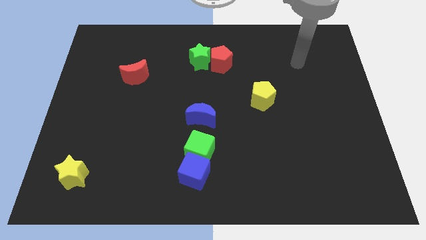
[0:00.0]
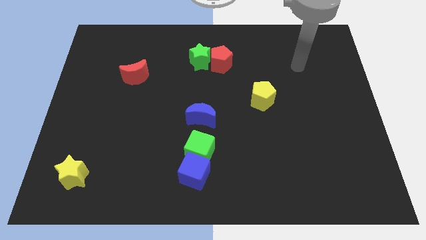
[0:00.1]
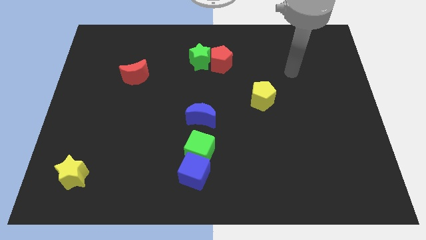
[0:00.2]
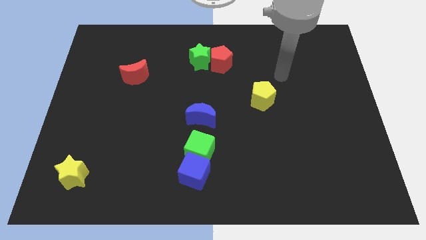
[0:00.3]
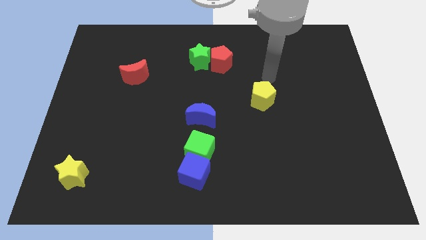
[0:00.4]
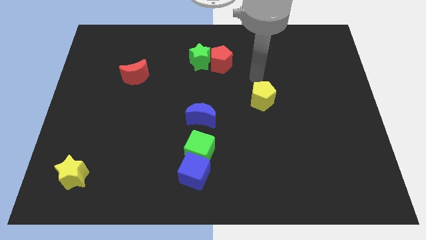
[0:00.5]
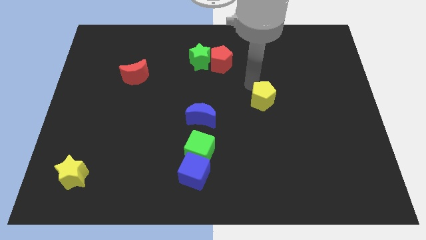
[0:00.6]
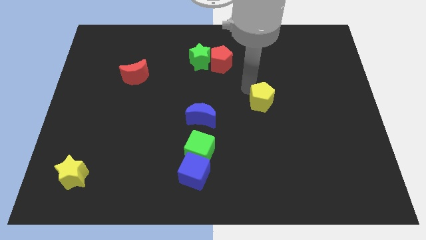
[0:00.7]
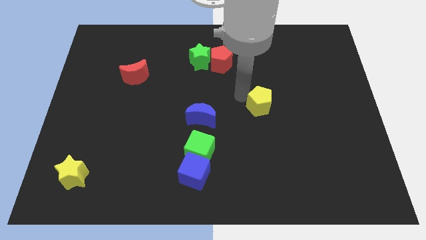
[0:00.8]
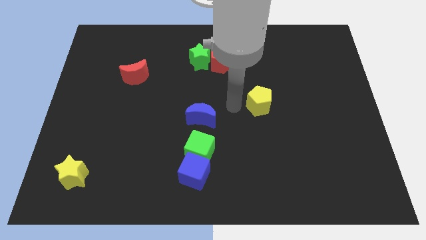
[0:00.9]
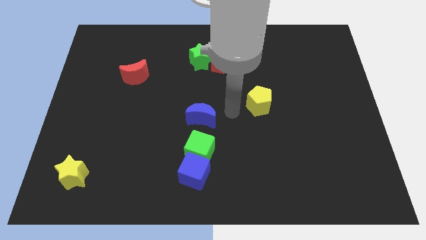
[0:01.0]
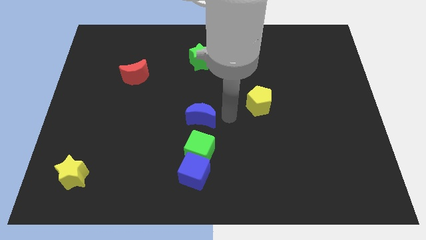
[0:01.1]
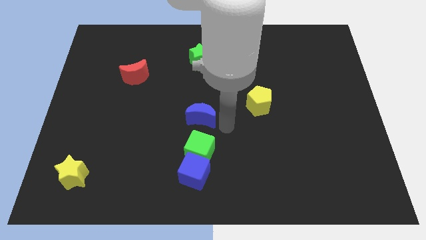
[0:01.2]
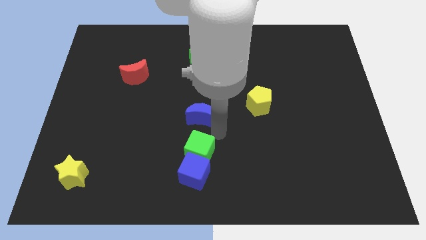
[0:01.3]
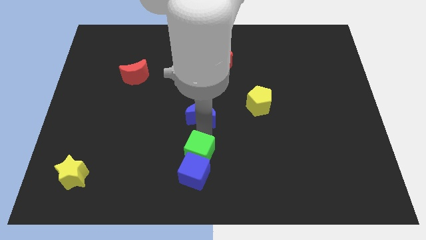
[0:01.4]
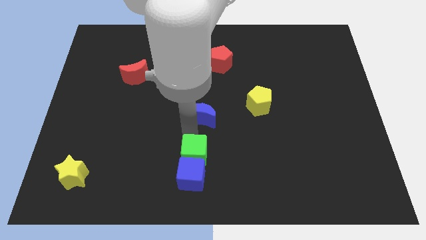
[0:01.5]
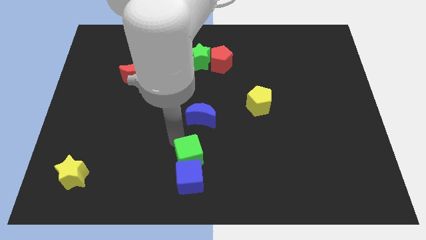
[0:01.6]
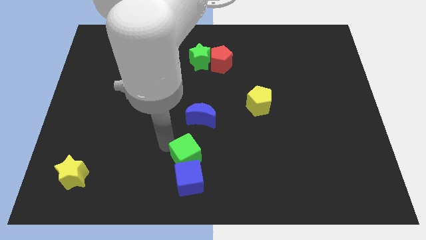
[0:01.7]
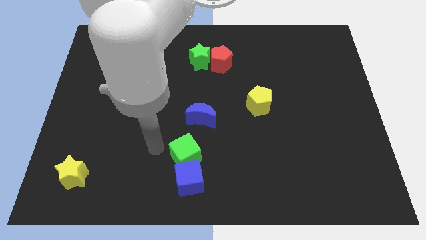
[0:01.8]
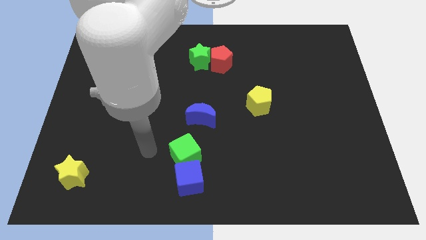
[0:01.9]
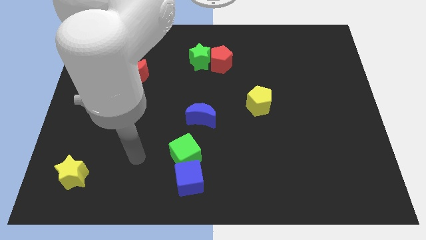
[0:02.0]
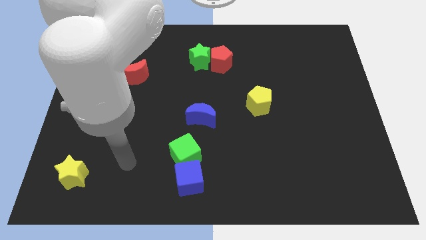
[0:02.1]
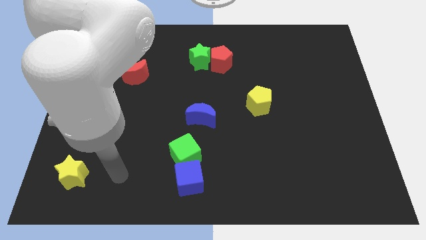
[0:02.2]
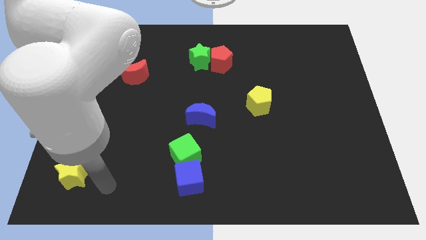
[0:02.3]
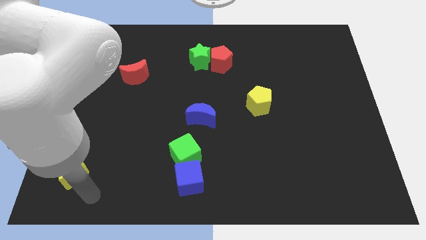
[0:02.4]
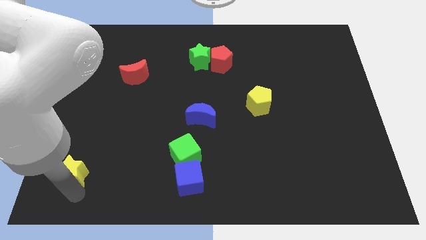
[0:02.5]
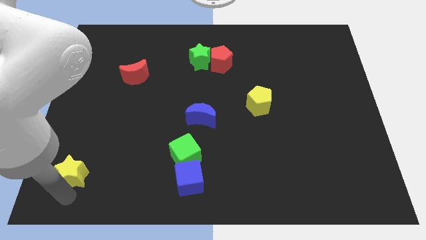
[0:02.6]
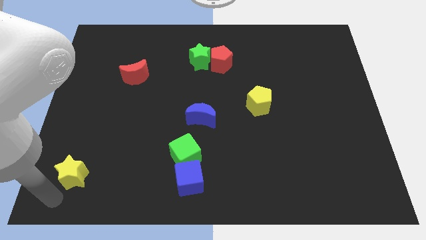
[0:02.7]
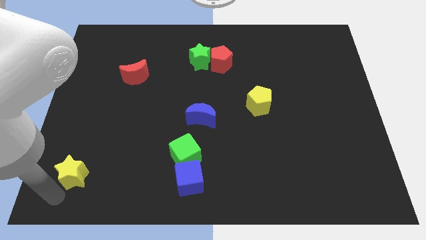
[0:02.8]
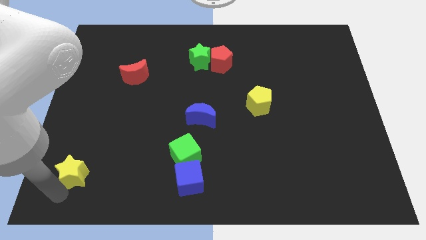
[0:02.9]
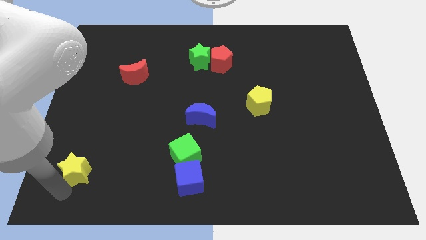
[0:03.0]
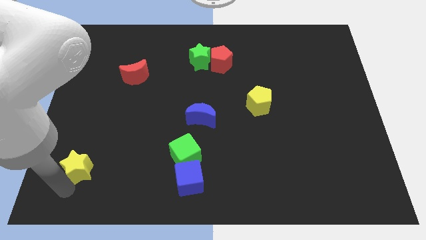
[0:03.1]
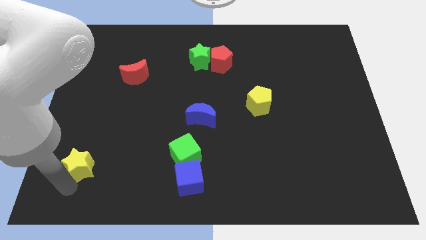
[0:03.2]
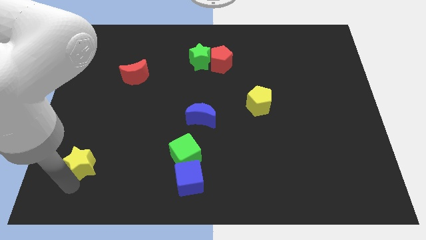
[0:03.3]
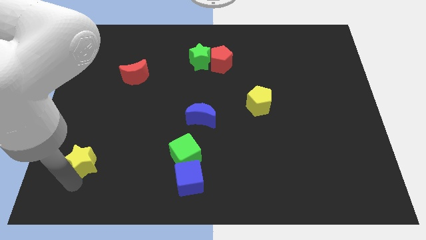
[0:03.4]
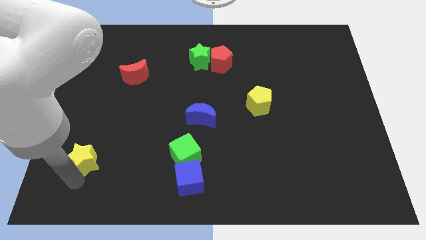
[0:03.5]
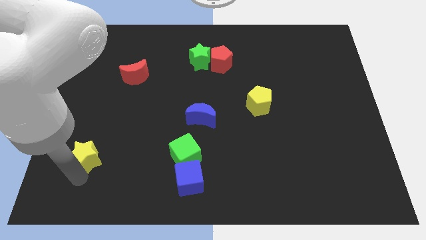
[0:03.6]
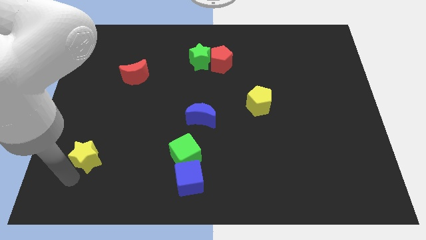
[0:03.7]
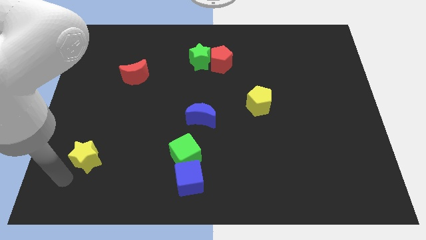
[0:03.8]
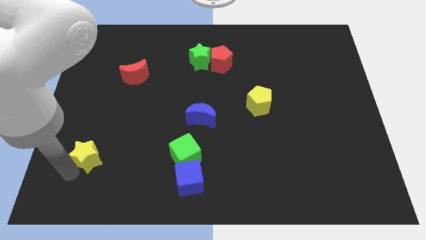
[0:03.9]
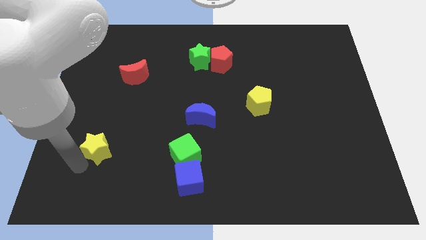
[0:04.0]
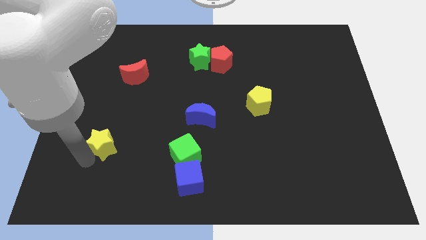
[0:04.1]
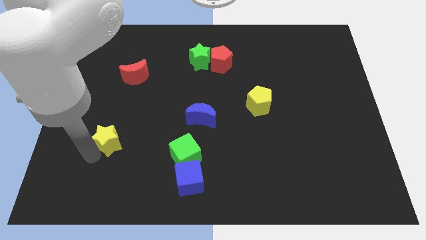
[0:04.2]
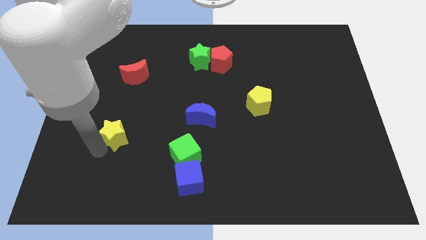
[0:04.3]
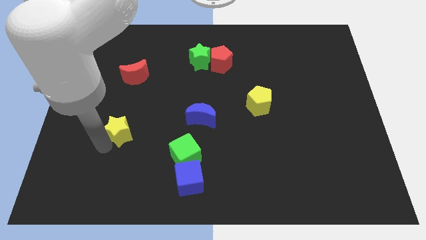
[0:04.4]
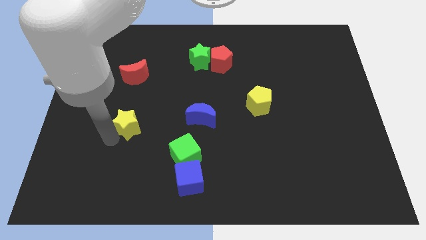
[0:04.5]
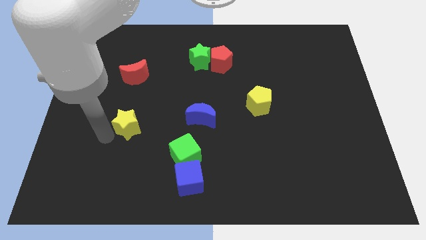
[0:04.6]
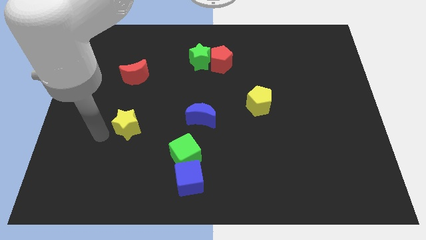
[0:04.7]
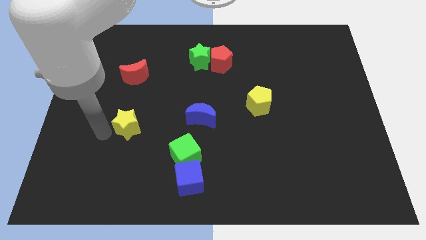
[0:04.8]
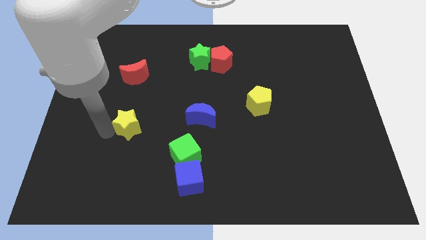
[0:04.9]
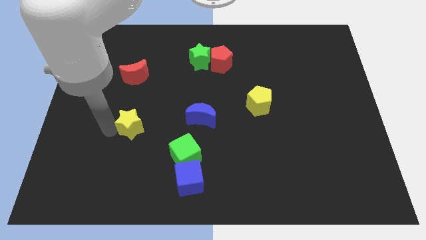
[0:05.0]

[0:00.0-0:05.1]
slide the yellow star to the left of the blue moon

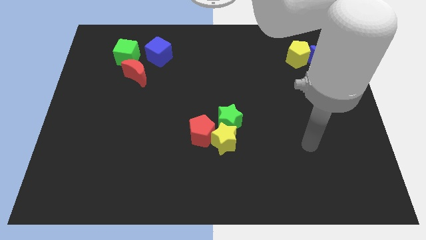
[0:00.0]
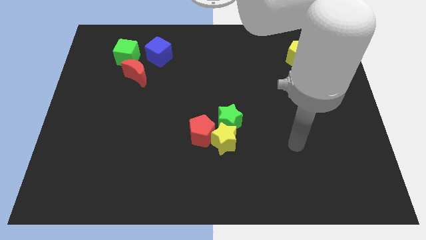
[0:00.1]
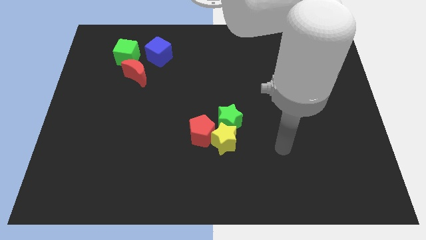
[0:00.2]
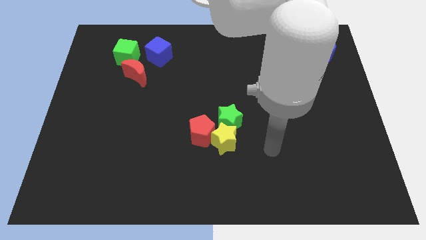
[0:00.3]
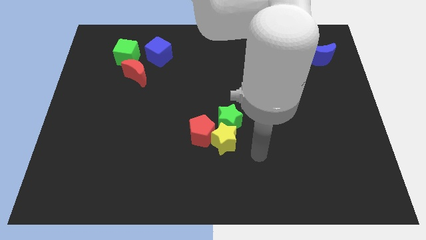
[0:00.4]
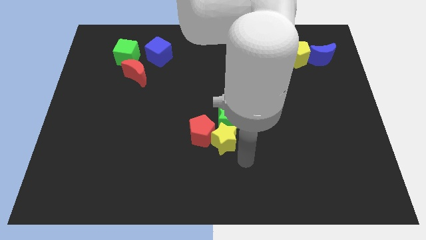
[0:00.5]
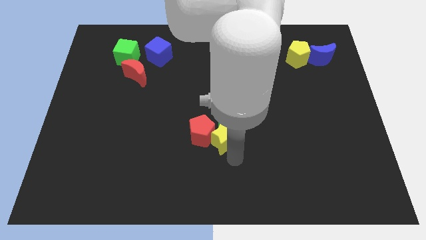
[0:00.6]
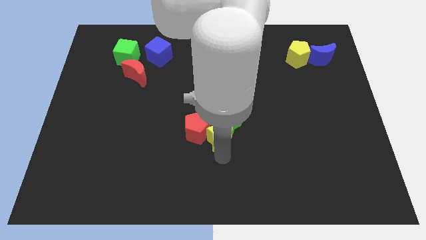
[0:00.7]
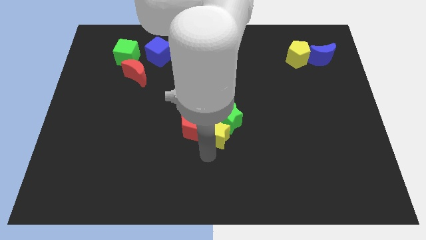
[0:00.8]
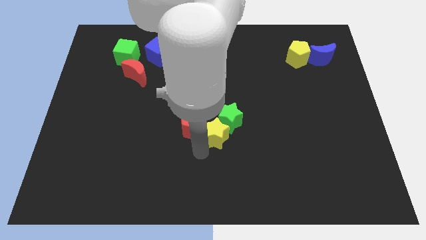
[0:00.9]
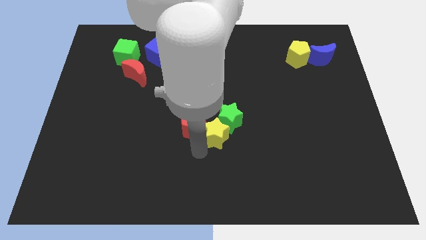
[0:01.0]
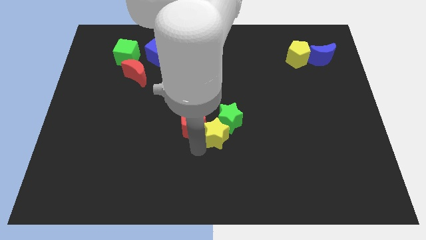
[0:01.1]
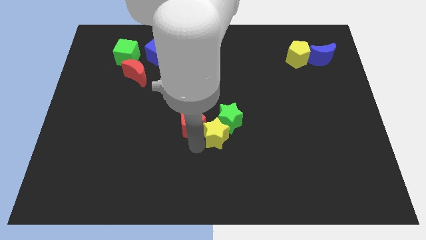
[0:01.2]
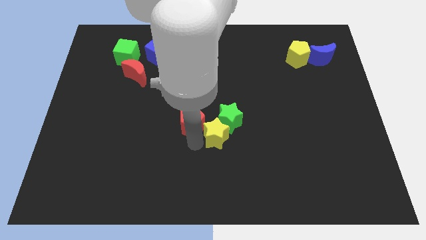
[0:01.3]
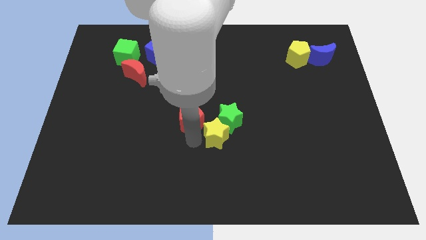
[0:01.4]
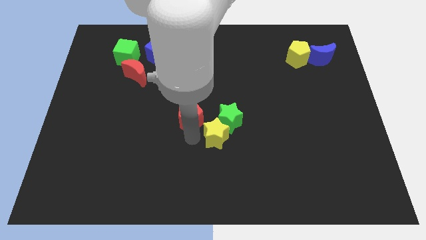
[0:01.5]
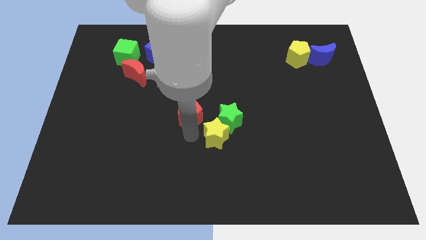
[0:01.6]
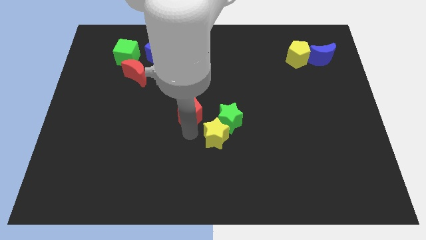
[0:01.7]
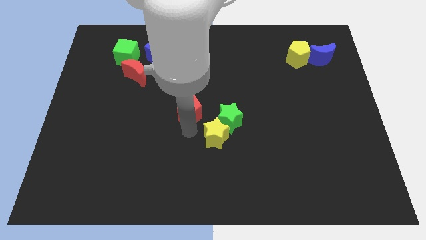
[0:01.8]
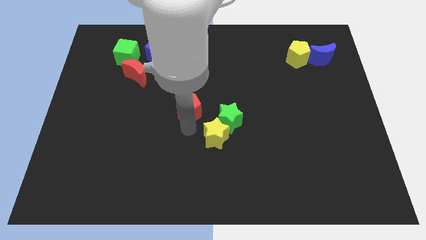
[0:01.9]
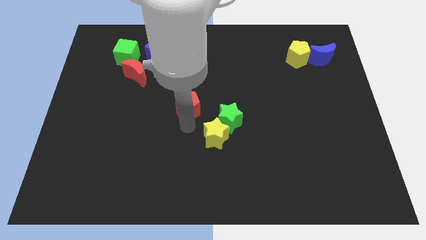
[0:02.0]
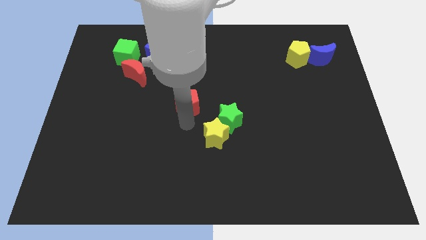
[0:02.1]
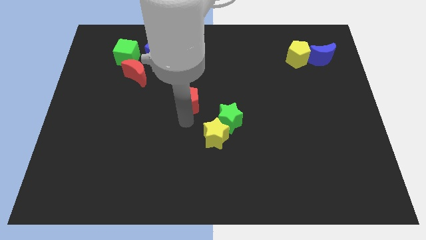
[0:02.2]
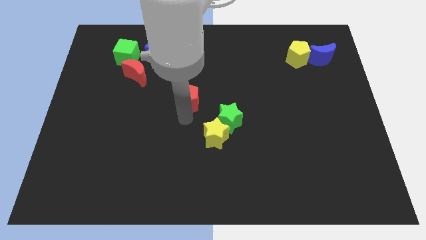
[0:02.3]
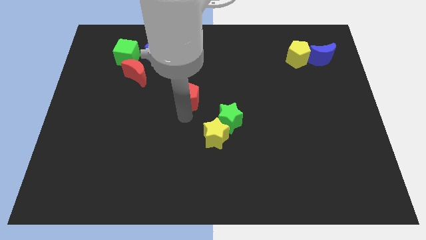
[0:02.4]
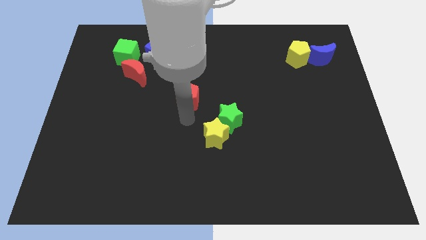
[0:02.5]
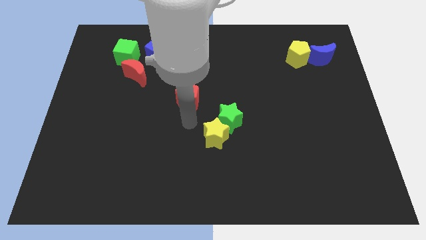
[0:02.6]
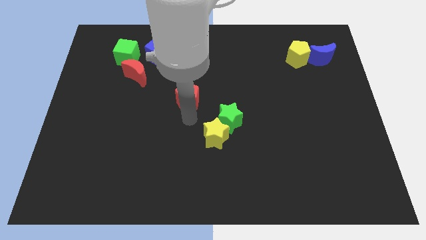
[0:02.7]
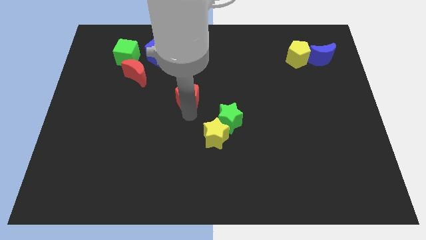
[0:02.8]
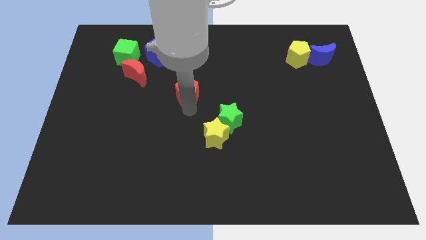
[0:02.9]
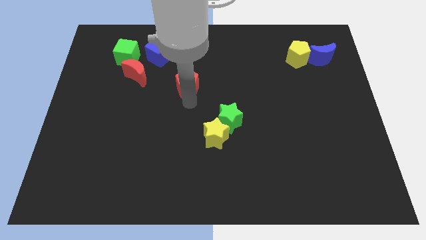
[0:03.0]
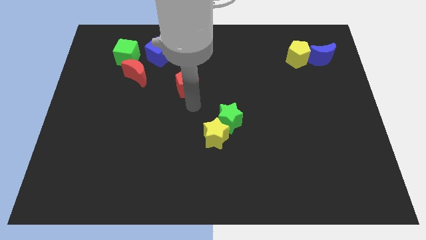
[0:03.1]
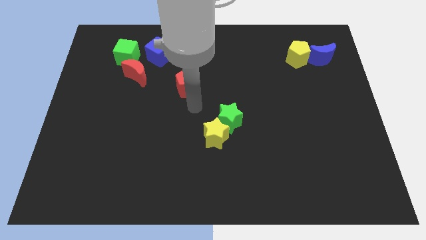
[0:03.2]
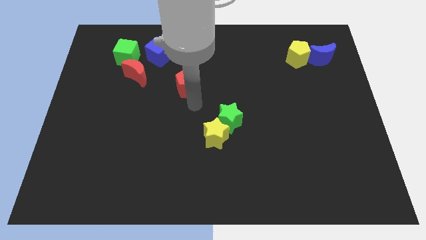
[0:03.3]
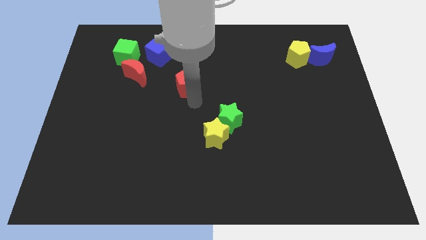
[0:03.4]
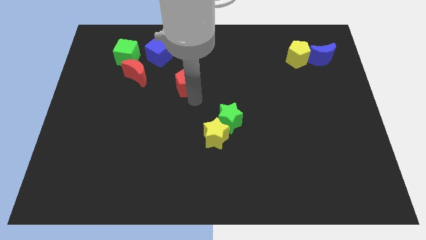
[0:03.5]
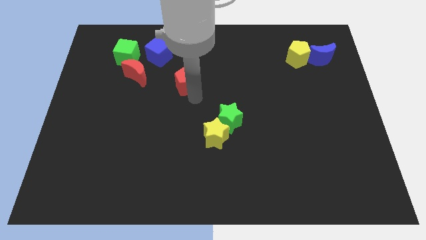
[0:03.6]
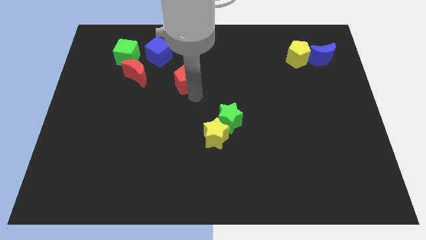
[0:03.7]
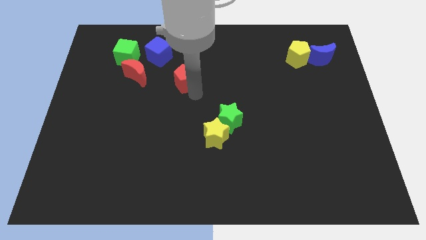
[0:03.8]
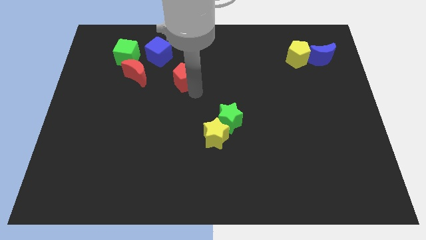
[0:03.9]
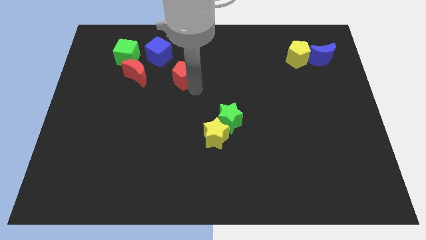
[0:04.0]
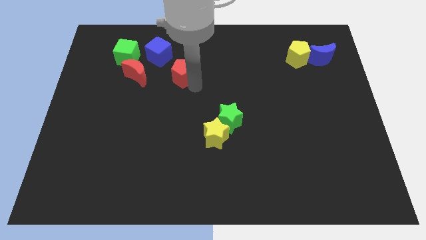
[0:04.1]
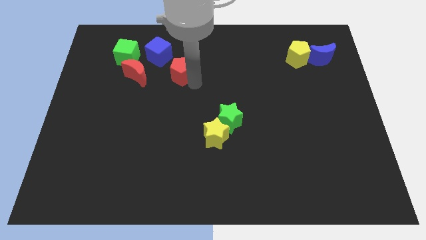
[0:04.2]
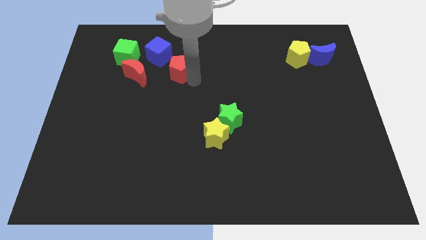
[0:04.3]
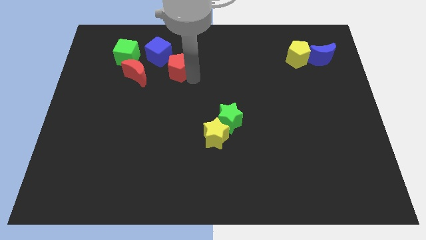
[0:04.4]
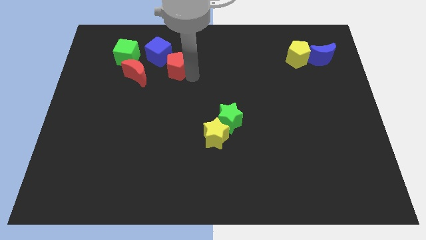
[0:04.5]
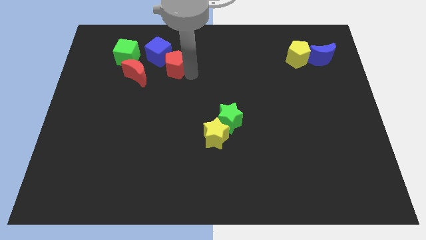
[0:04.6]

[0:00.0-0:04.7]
move the red pentagon right of the green cube
